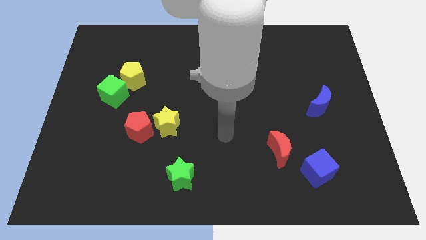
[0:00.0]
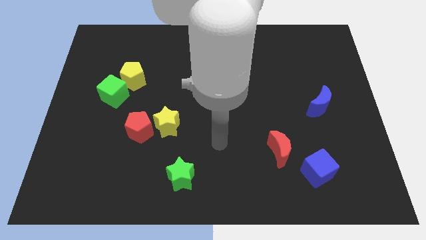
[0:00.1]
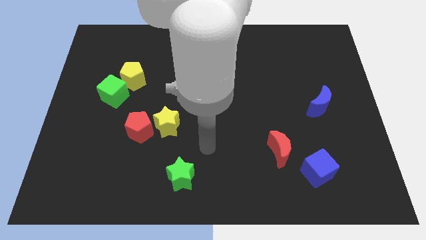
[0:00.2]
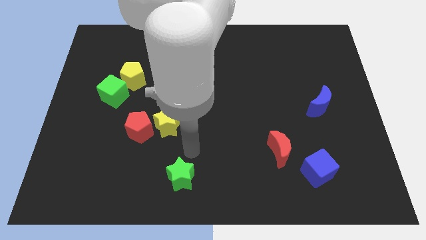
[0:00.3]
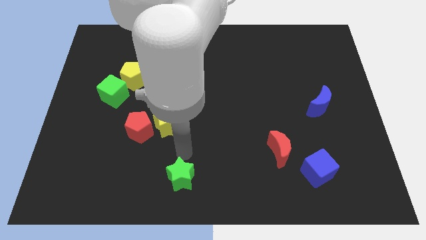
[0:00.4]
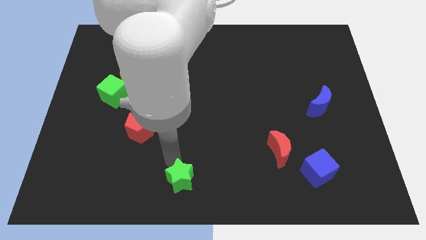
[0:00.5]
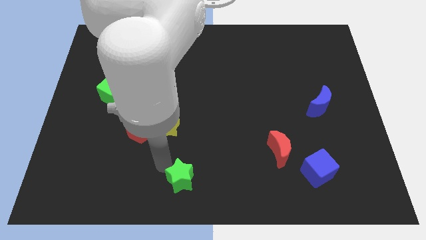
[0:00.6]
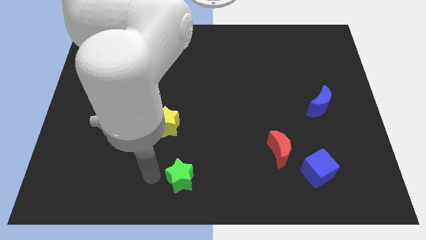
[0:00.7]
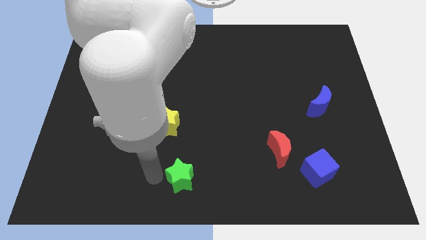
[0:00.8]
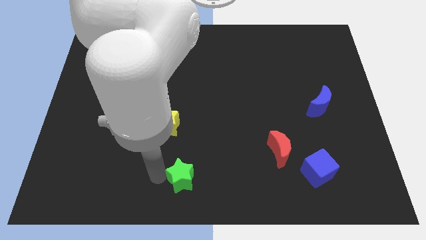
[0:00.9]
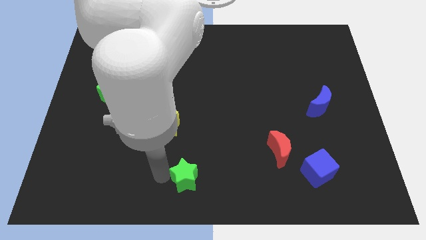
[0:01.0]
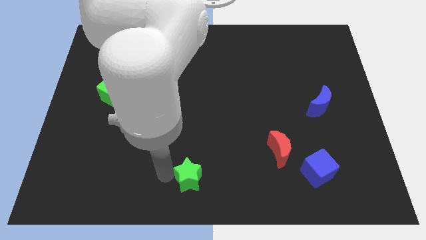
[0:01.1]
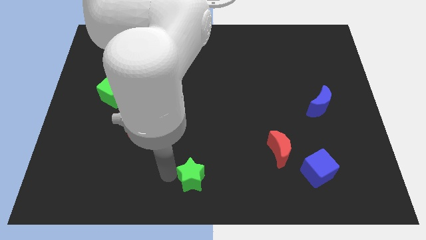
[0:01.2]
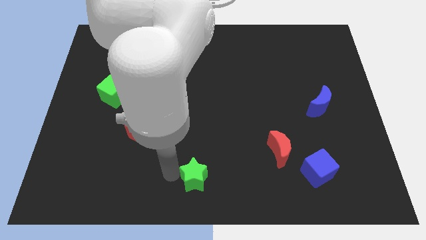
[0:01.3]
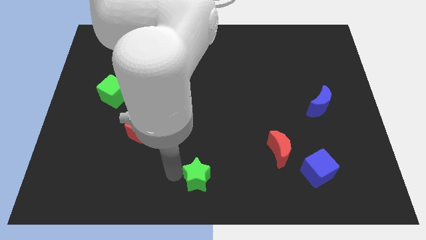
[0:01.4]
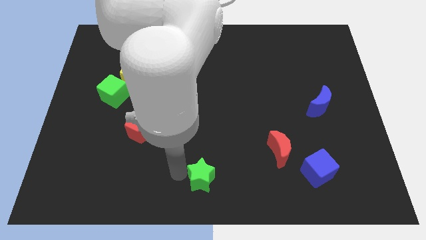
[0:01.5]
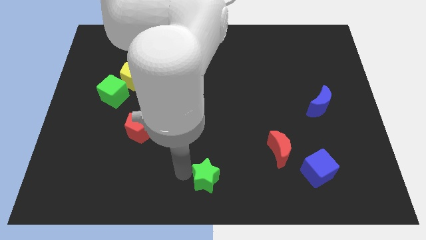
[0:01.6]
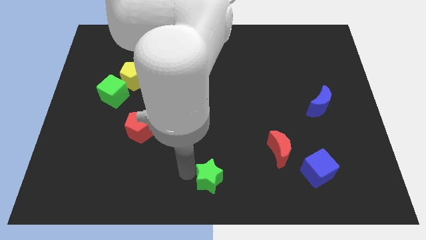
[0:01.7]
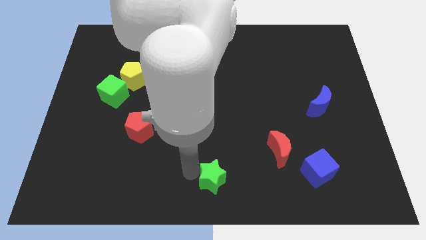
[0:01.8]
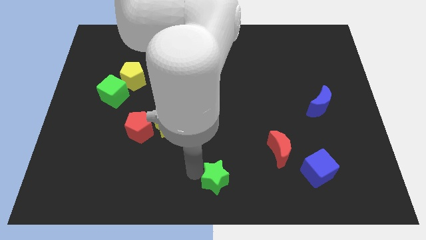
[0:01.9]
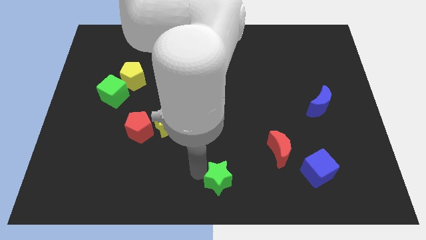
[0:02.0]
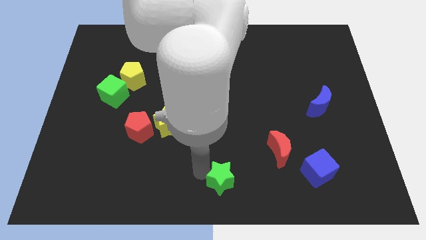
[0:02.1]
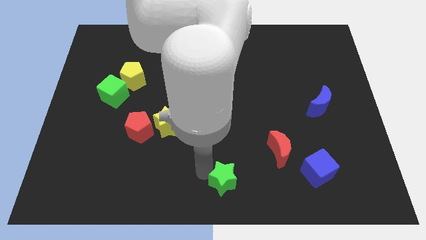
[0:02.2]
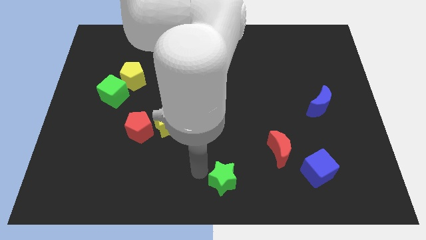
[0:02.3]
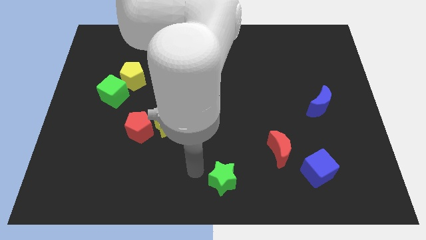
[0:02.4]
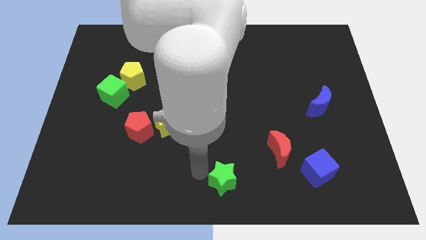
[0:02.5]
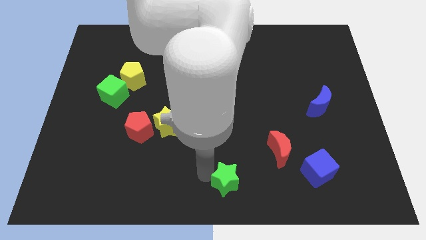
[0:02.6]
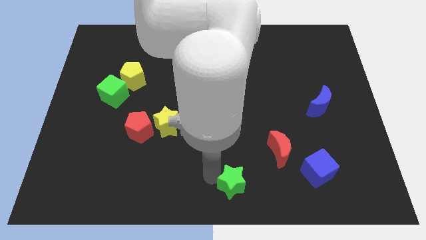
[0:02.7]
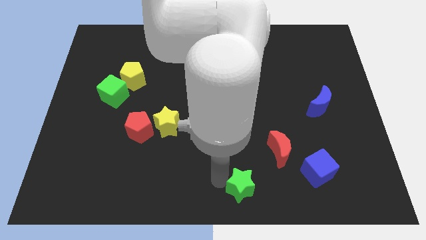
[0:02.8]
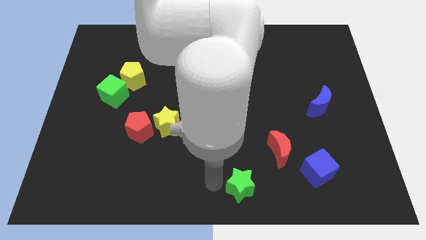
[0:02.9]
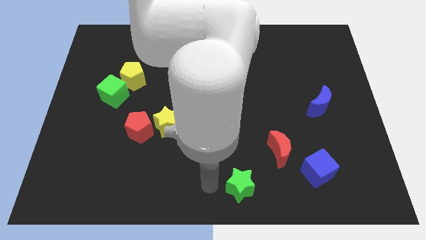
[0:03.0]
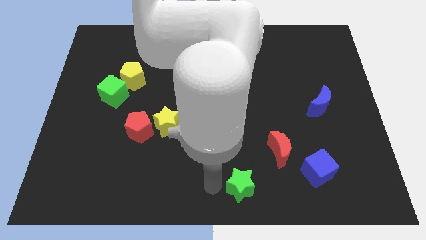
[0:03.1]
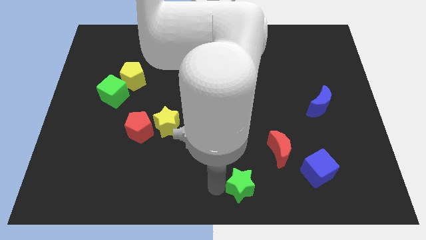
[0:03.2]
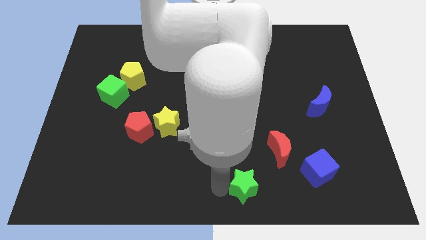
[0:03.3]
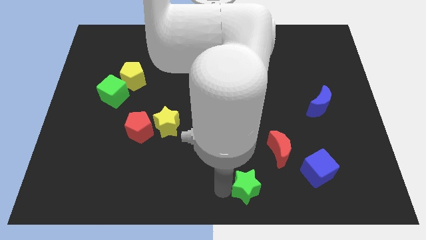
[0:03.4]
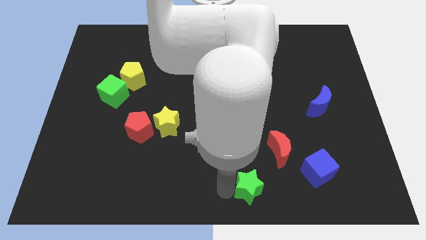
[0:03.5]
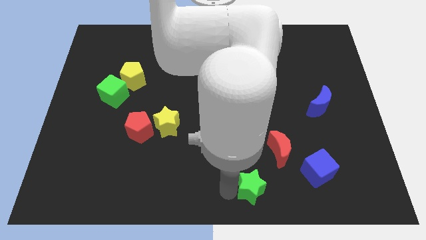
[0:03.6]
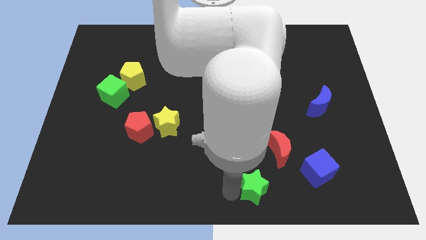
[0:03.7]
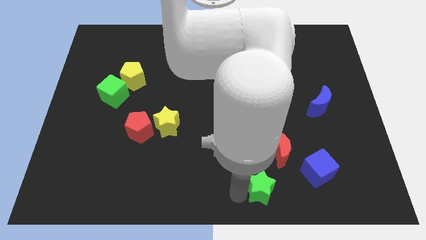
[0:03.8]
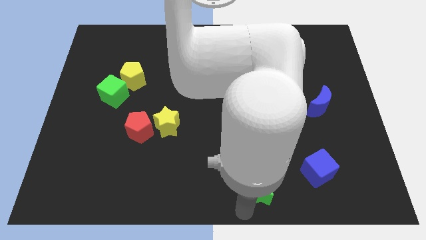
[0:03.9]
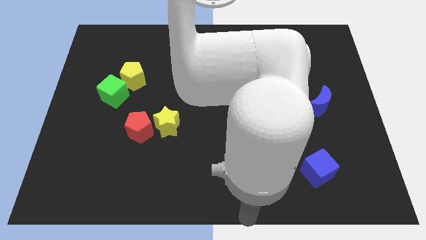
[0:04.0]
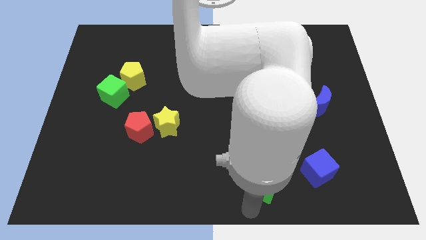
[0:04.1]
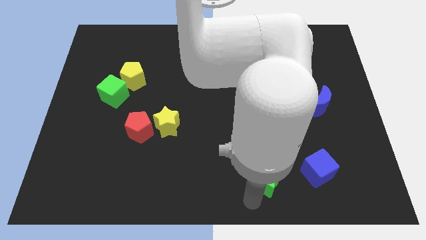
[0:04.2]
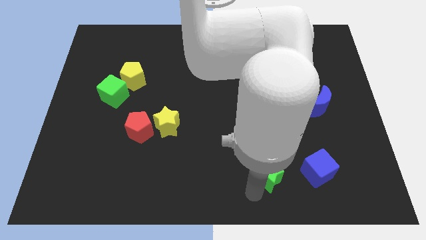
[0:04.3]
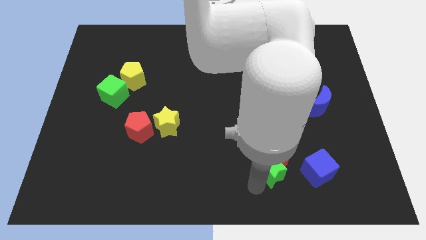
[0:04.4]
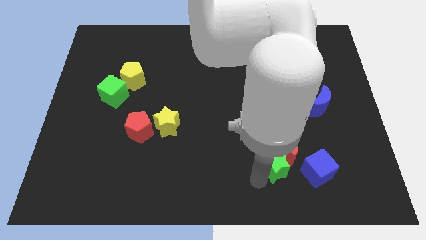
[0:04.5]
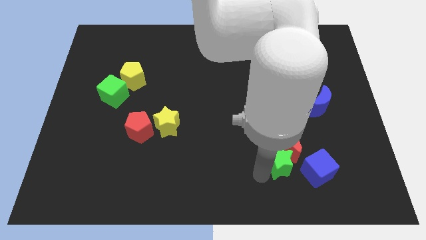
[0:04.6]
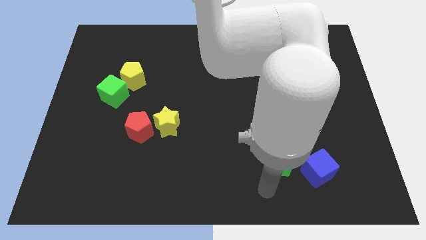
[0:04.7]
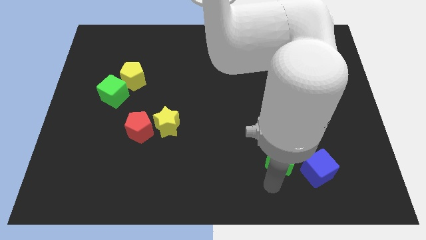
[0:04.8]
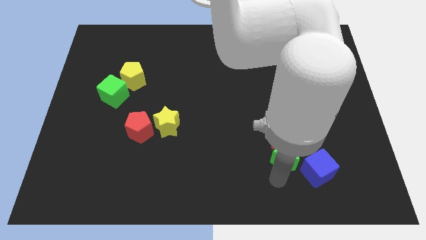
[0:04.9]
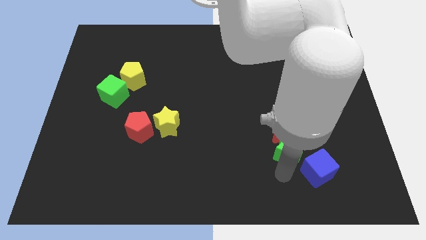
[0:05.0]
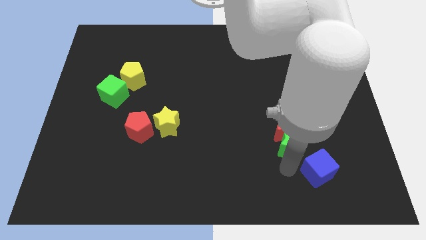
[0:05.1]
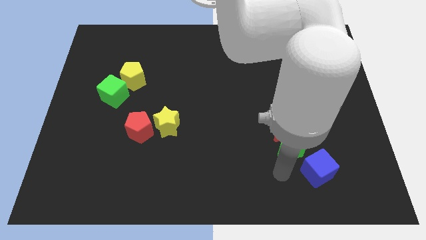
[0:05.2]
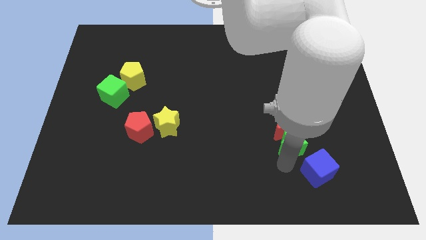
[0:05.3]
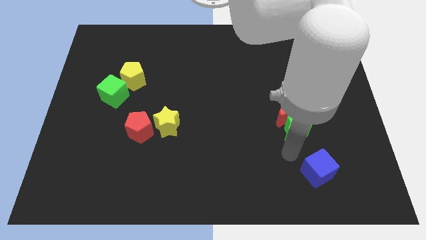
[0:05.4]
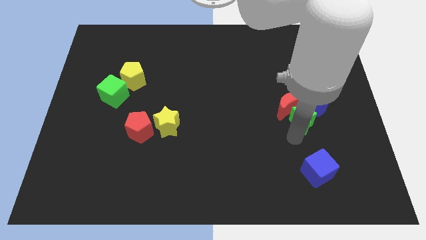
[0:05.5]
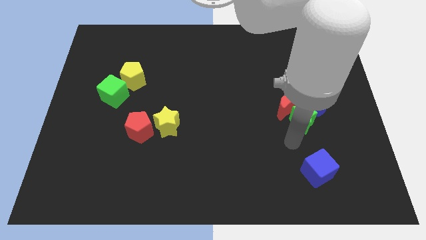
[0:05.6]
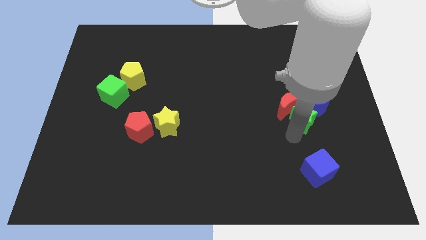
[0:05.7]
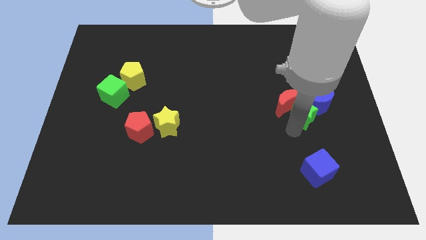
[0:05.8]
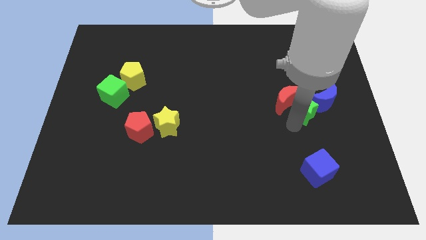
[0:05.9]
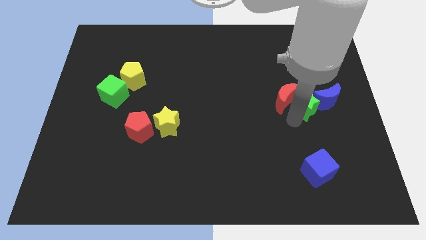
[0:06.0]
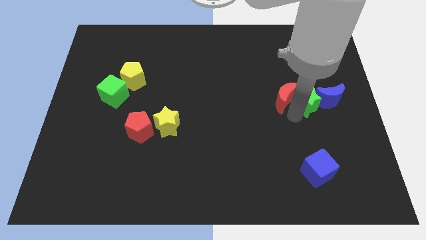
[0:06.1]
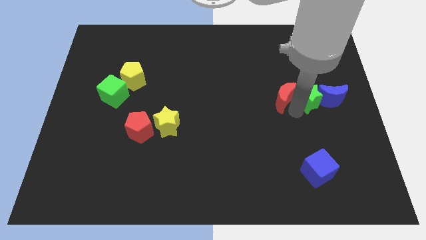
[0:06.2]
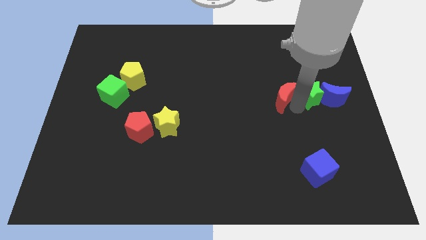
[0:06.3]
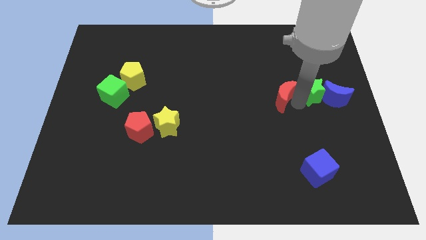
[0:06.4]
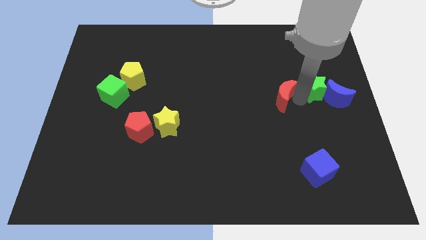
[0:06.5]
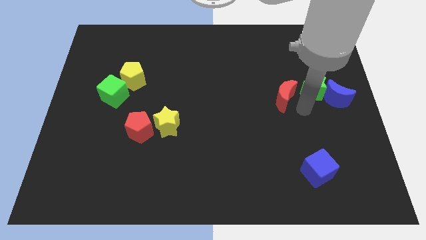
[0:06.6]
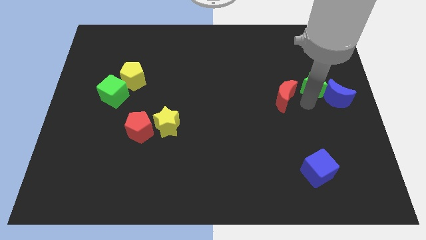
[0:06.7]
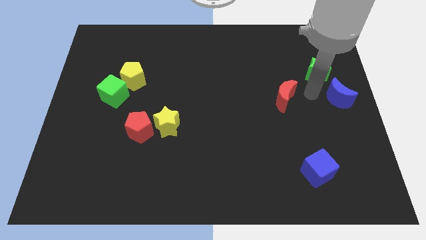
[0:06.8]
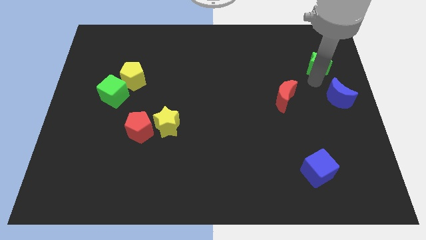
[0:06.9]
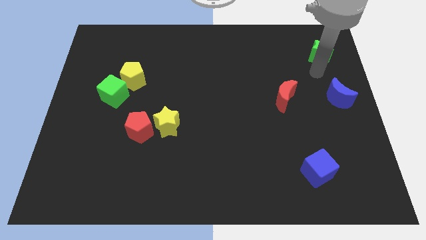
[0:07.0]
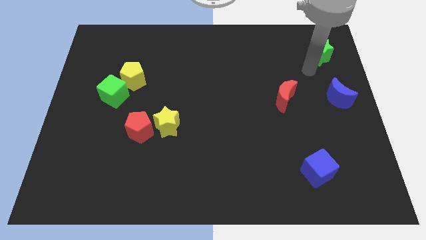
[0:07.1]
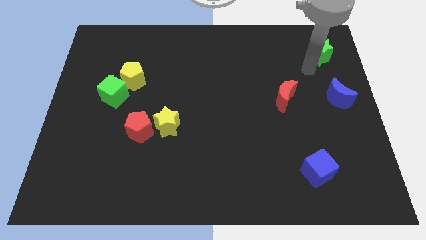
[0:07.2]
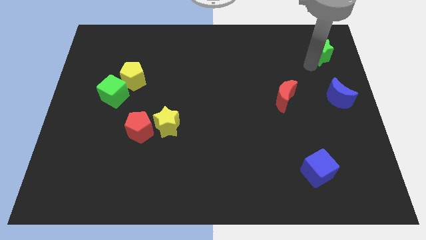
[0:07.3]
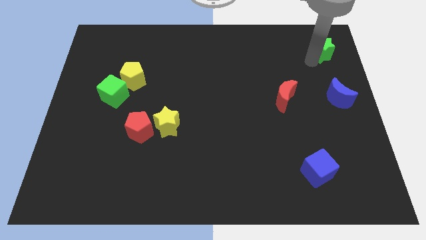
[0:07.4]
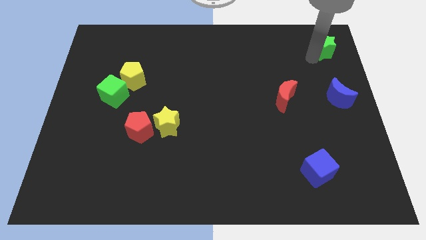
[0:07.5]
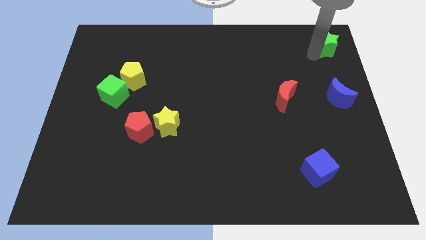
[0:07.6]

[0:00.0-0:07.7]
slide the green star to the top right corner
